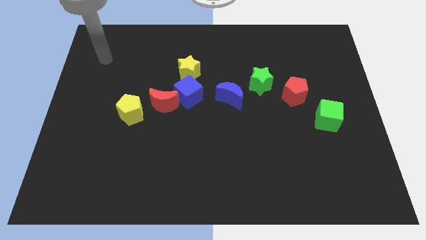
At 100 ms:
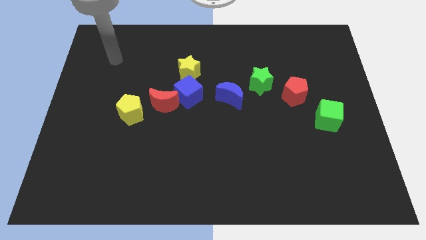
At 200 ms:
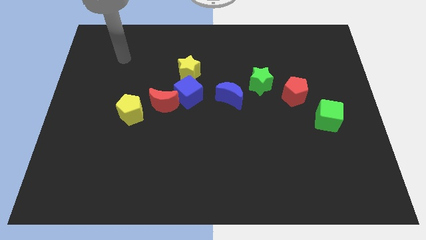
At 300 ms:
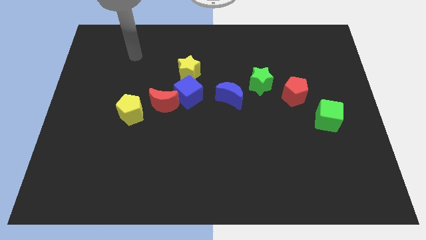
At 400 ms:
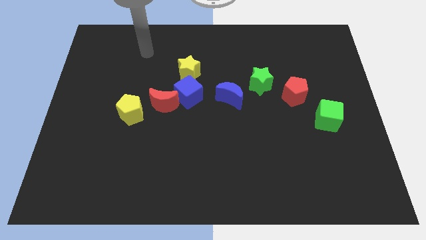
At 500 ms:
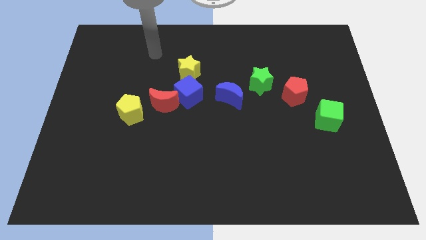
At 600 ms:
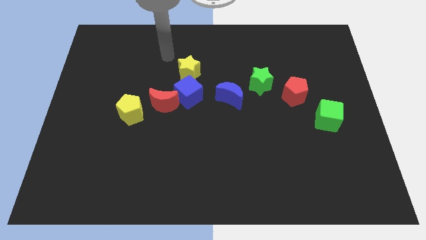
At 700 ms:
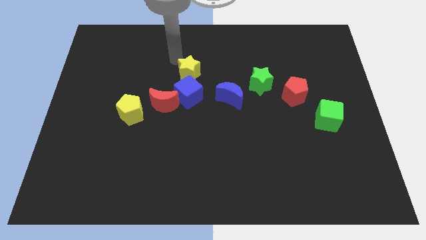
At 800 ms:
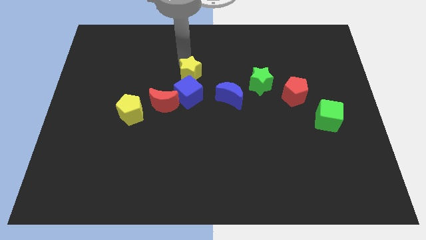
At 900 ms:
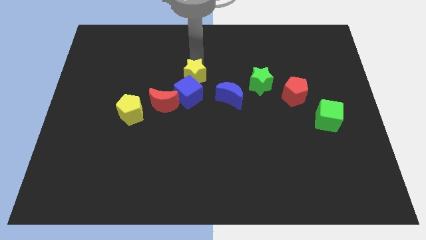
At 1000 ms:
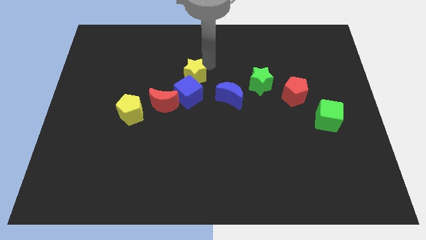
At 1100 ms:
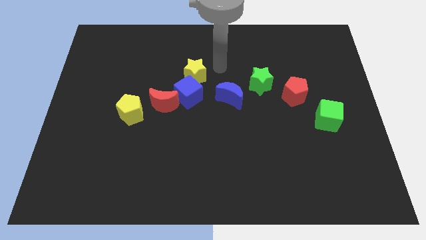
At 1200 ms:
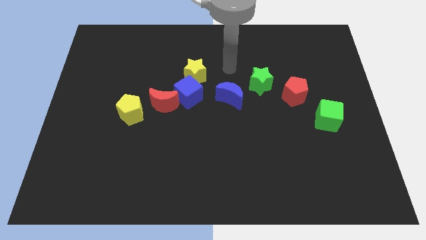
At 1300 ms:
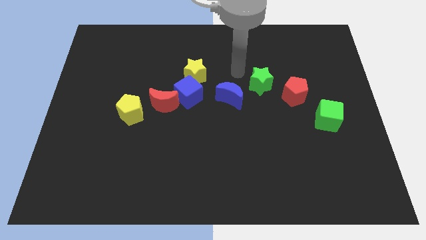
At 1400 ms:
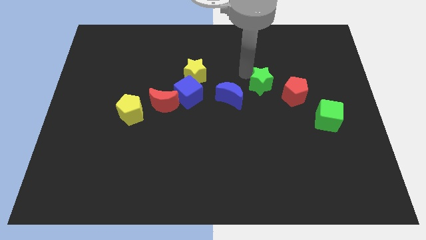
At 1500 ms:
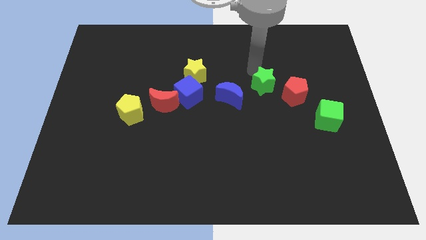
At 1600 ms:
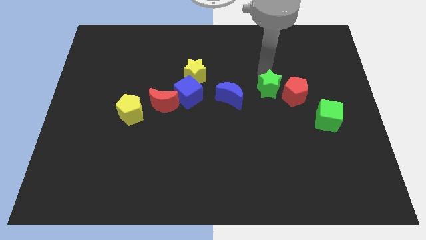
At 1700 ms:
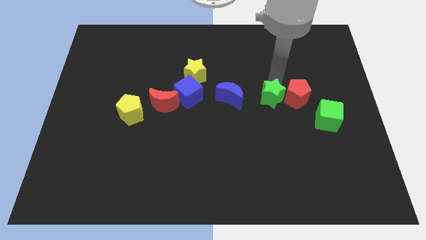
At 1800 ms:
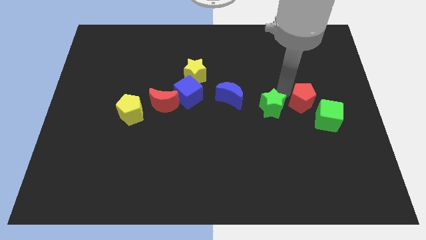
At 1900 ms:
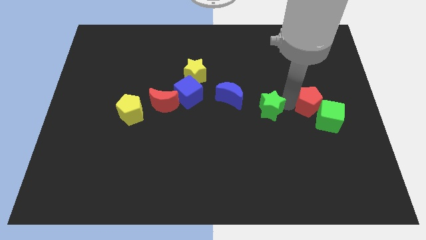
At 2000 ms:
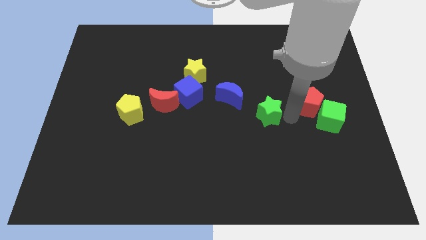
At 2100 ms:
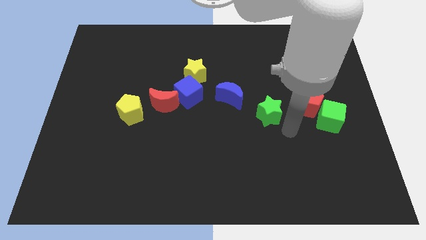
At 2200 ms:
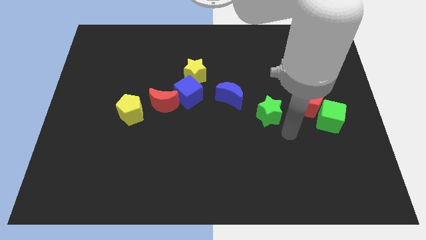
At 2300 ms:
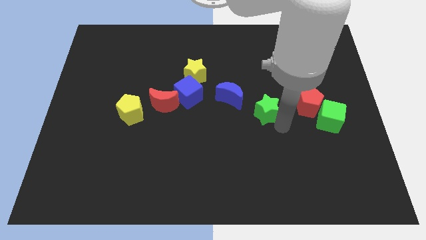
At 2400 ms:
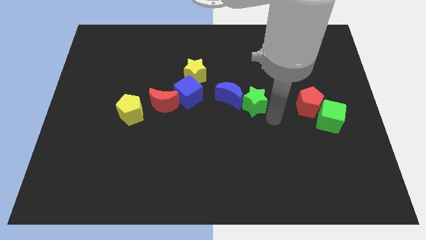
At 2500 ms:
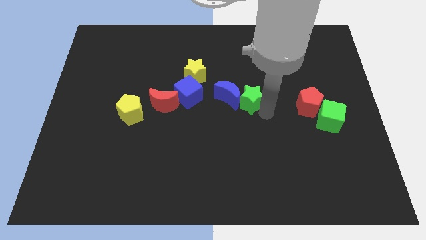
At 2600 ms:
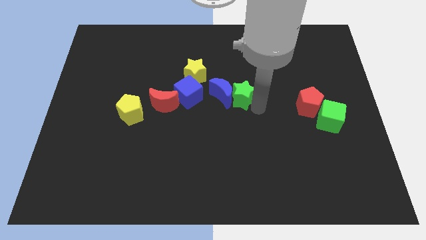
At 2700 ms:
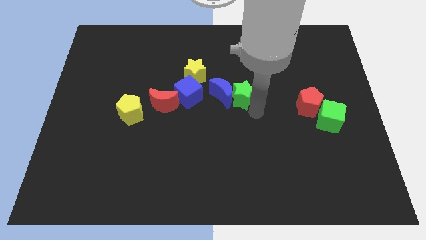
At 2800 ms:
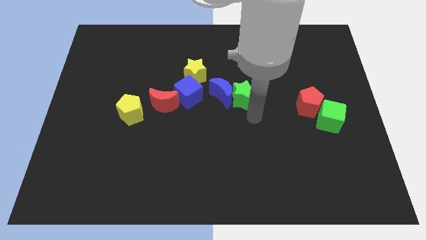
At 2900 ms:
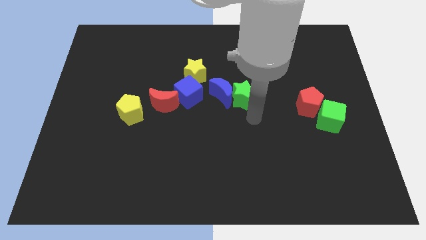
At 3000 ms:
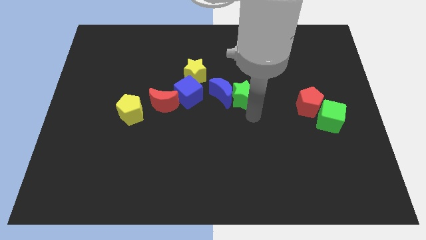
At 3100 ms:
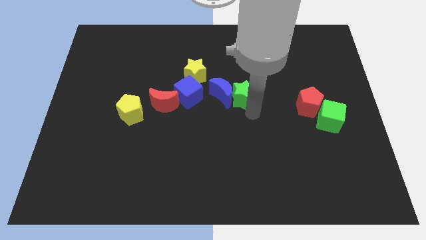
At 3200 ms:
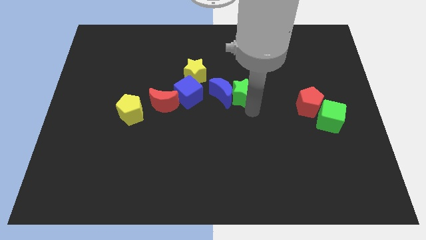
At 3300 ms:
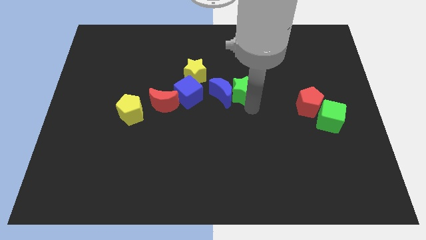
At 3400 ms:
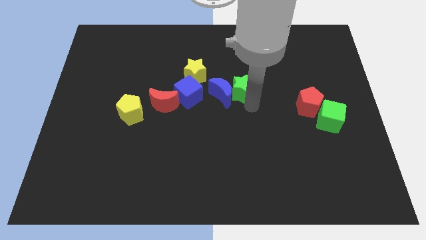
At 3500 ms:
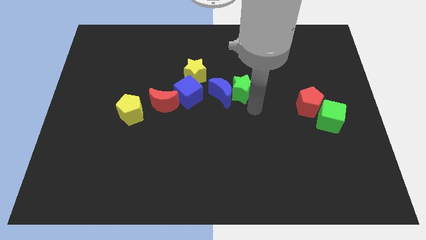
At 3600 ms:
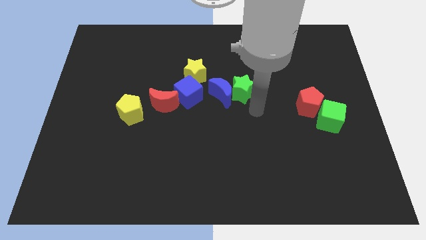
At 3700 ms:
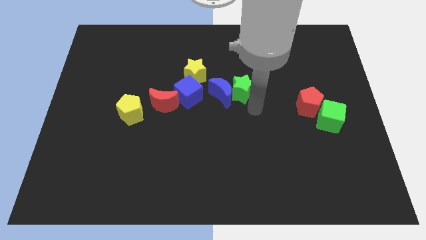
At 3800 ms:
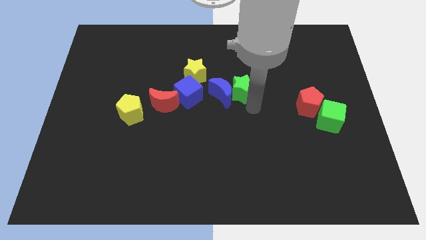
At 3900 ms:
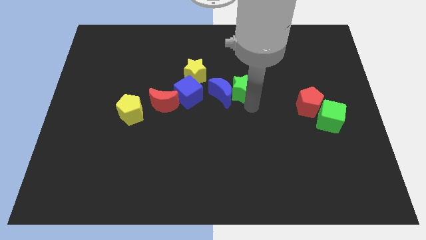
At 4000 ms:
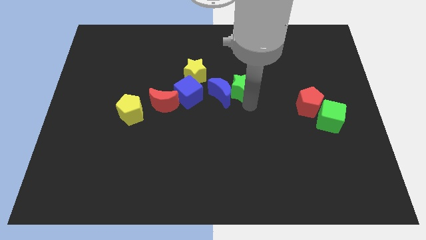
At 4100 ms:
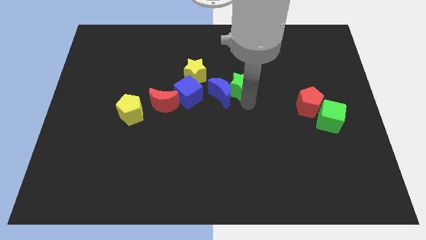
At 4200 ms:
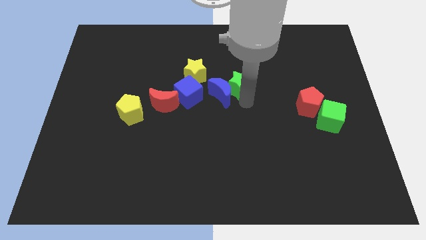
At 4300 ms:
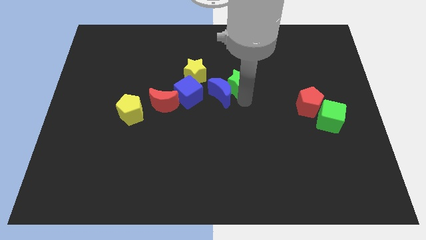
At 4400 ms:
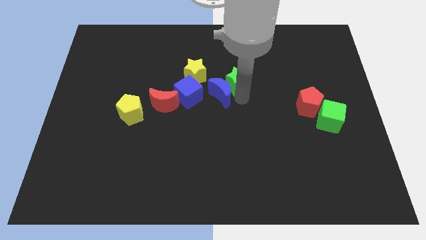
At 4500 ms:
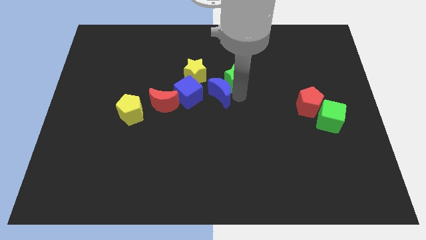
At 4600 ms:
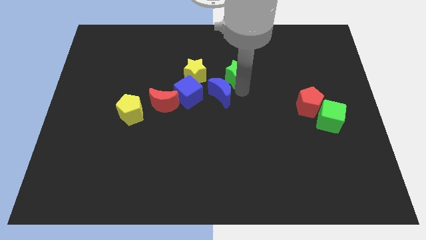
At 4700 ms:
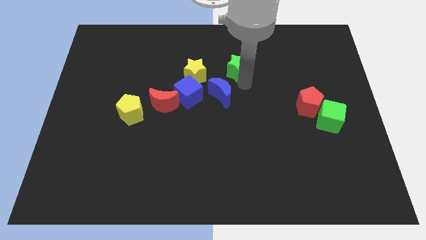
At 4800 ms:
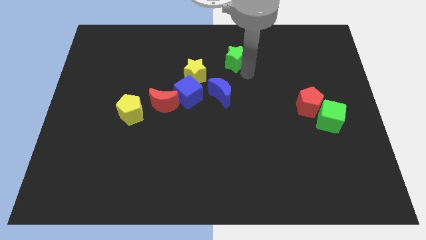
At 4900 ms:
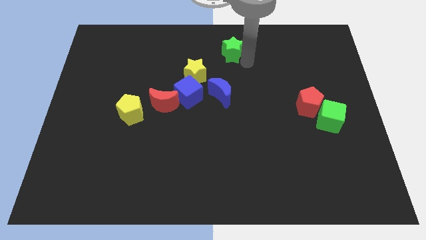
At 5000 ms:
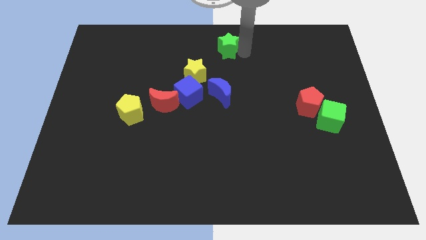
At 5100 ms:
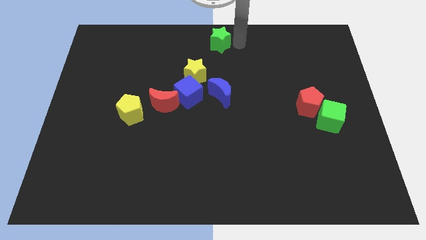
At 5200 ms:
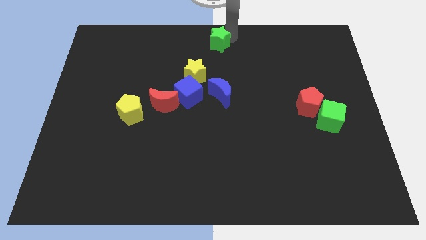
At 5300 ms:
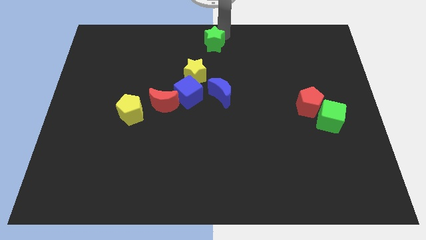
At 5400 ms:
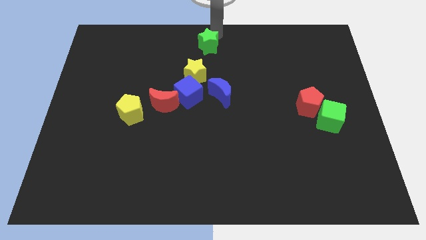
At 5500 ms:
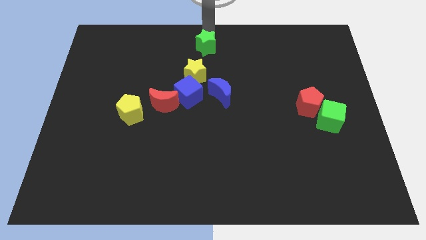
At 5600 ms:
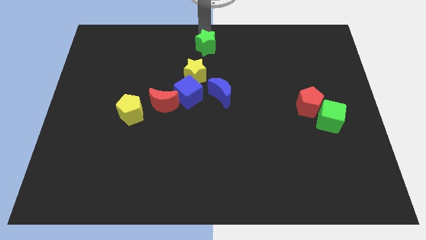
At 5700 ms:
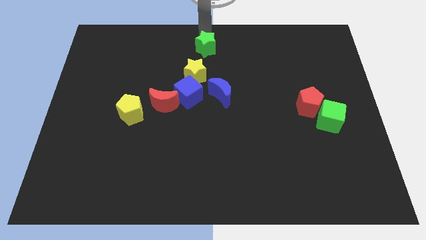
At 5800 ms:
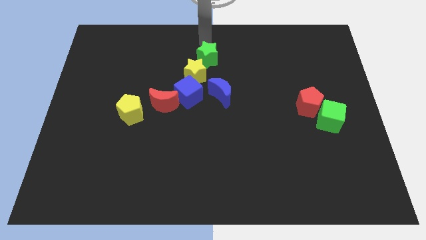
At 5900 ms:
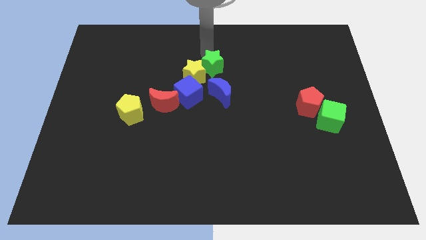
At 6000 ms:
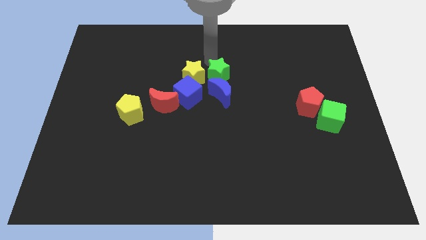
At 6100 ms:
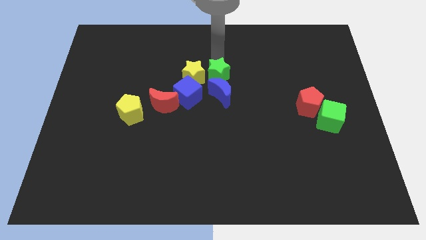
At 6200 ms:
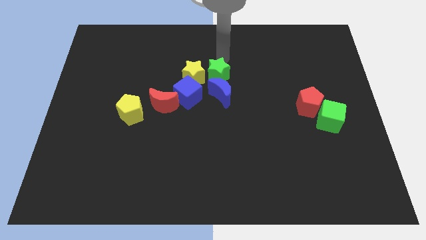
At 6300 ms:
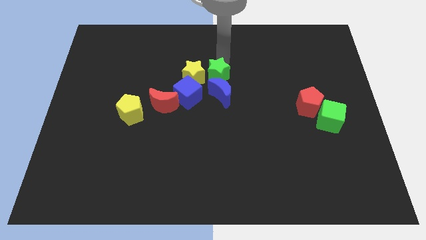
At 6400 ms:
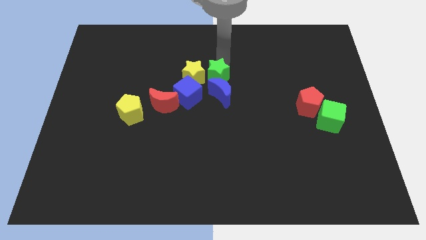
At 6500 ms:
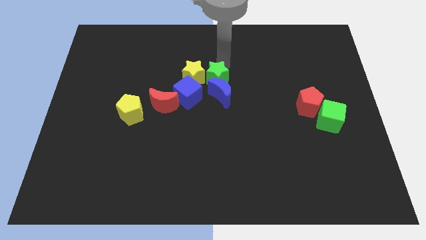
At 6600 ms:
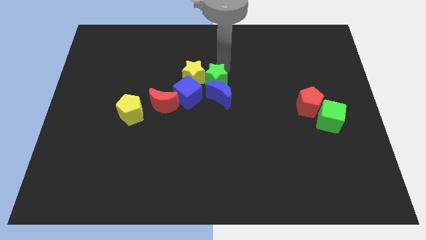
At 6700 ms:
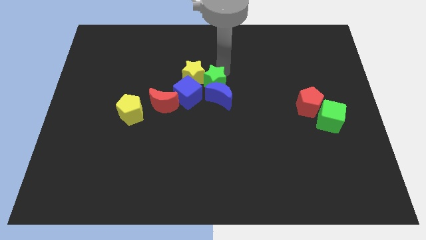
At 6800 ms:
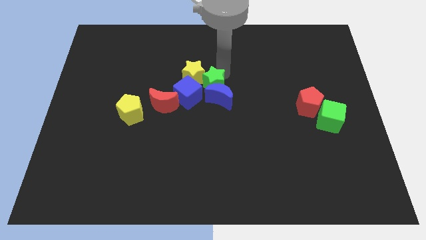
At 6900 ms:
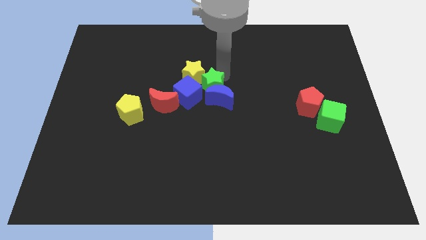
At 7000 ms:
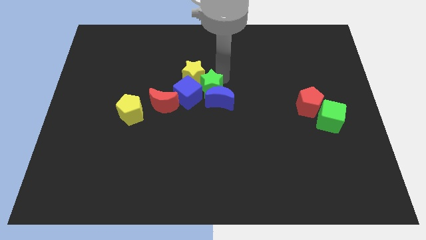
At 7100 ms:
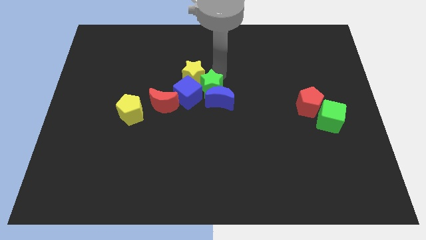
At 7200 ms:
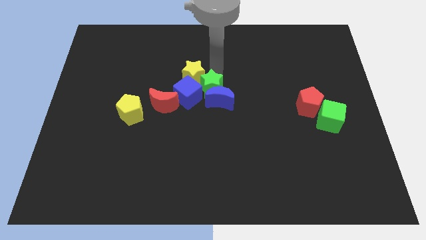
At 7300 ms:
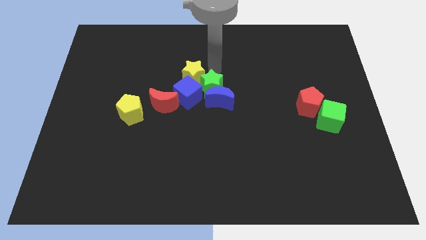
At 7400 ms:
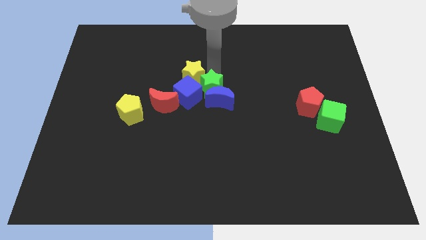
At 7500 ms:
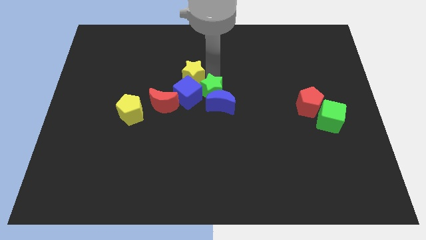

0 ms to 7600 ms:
slide the green star just right of the red moon
